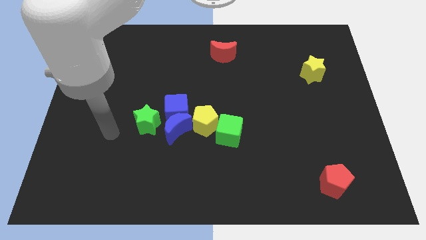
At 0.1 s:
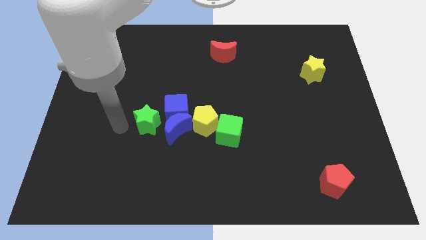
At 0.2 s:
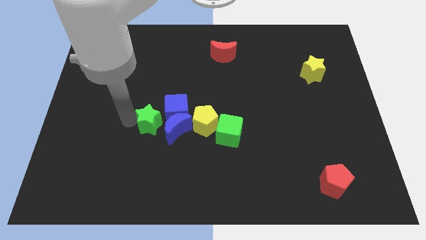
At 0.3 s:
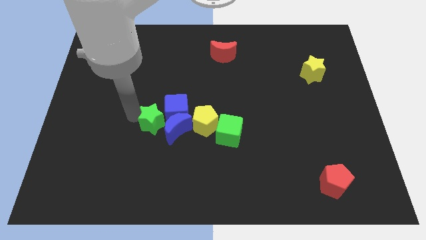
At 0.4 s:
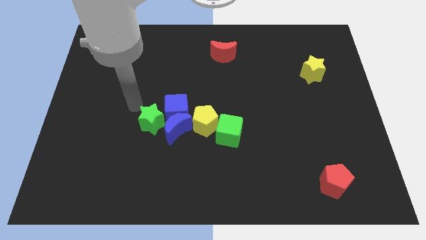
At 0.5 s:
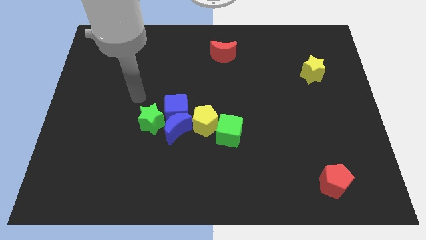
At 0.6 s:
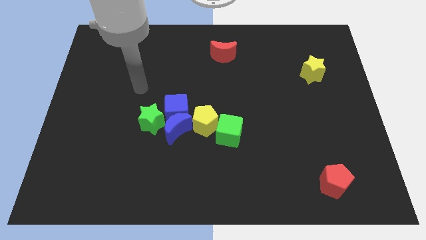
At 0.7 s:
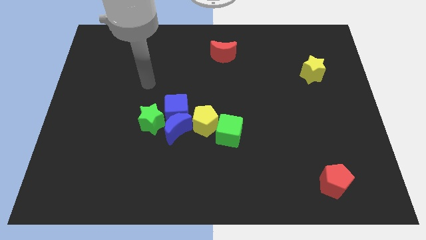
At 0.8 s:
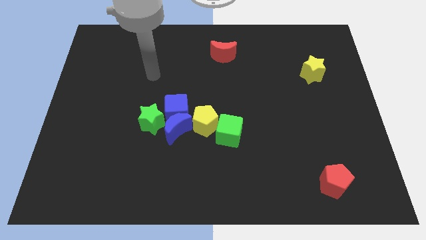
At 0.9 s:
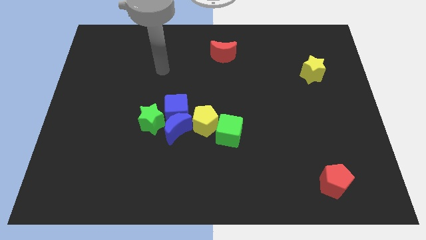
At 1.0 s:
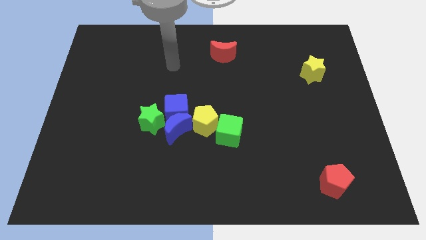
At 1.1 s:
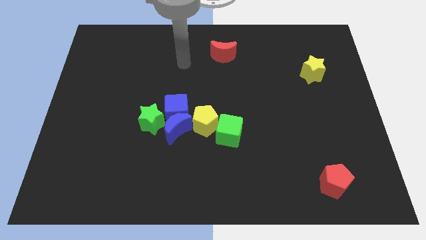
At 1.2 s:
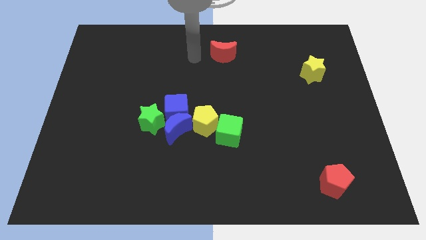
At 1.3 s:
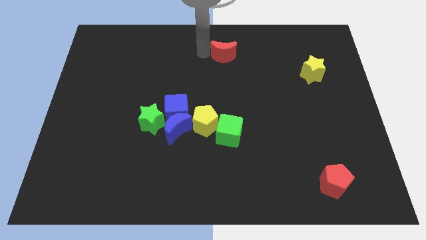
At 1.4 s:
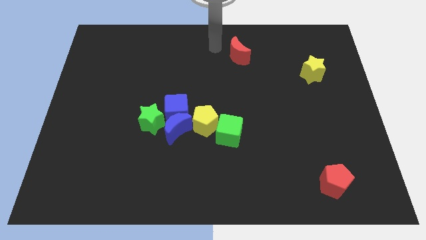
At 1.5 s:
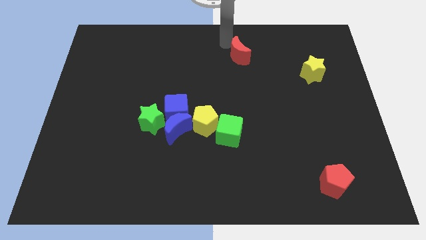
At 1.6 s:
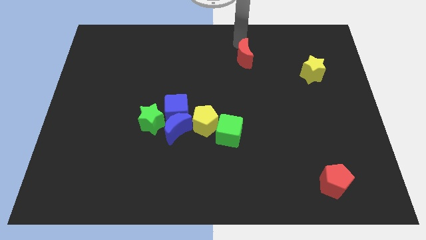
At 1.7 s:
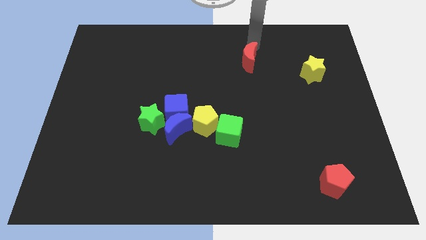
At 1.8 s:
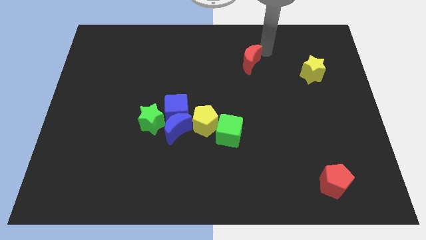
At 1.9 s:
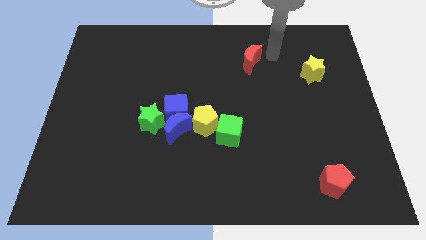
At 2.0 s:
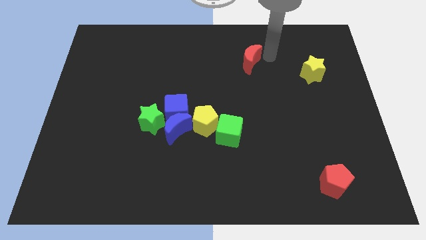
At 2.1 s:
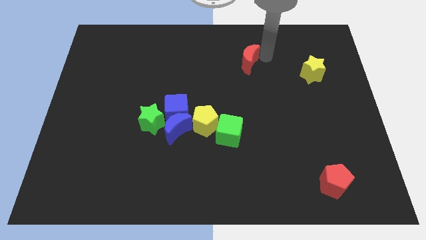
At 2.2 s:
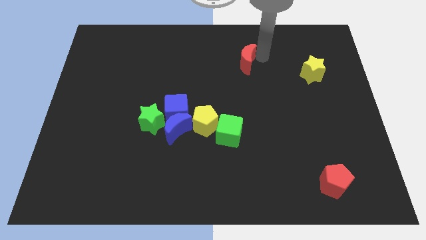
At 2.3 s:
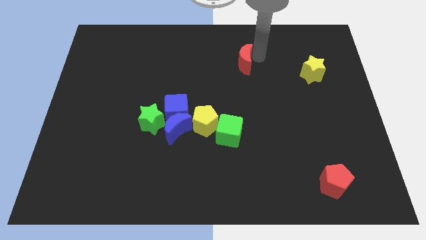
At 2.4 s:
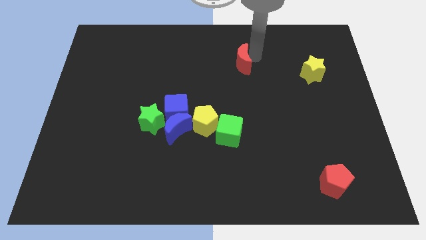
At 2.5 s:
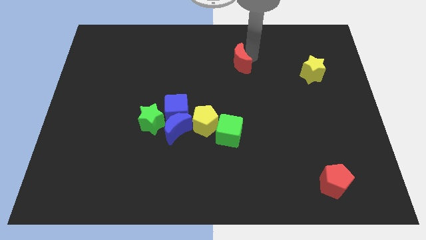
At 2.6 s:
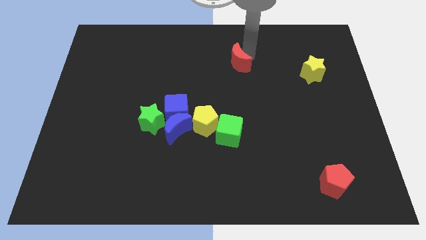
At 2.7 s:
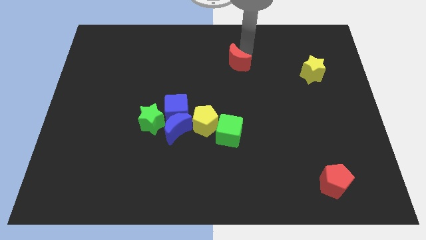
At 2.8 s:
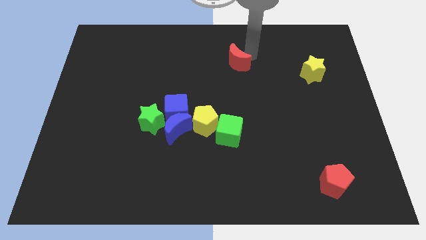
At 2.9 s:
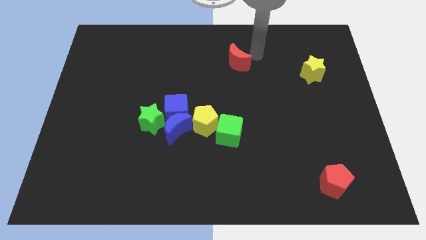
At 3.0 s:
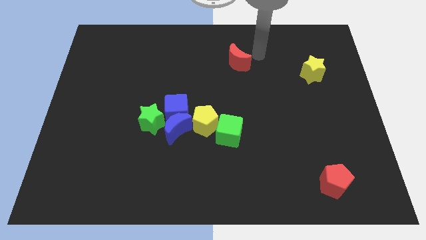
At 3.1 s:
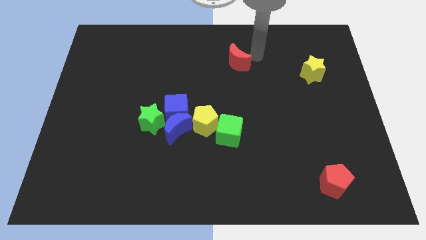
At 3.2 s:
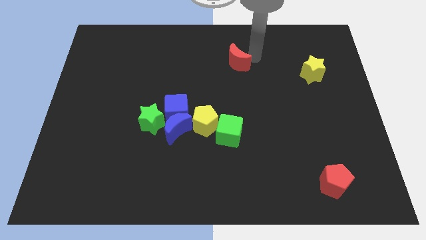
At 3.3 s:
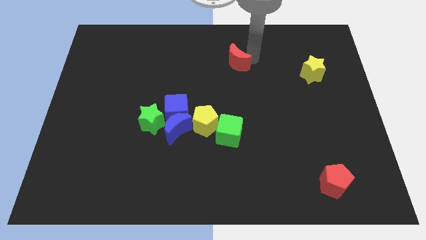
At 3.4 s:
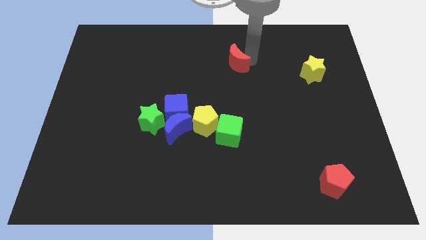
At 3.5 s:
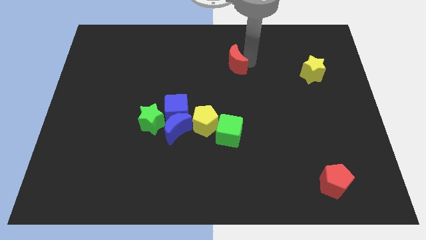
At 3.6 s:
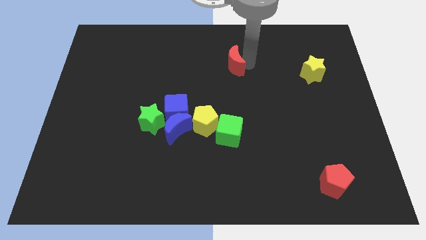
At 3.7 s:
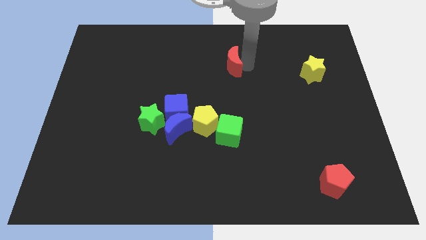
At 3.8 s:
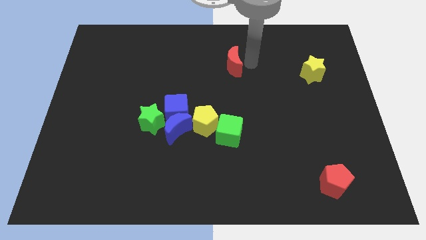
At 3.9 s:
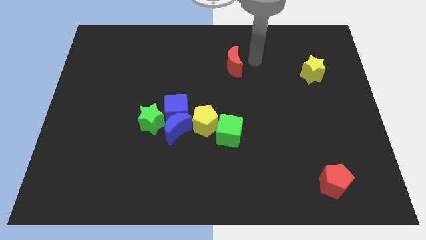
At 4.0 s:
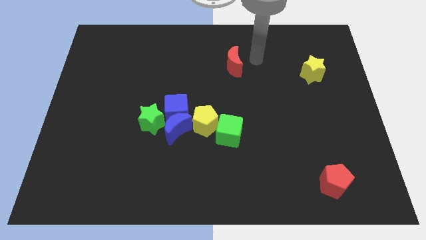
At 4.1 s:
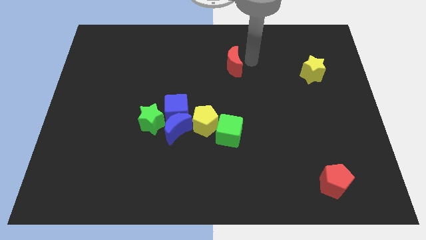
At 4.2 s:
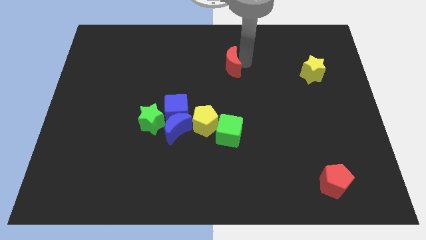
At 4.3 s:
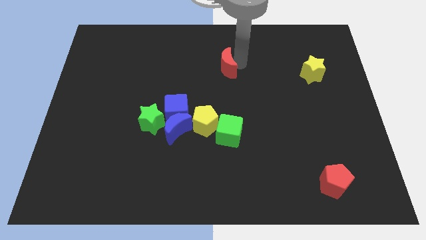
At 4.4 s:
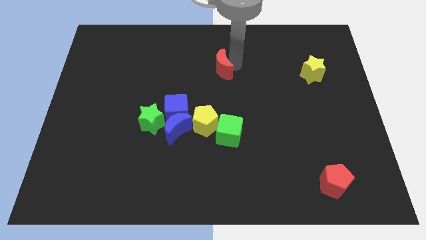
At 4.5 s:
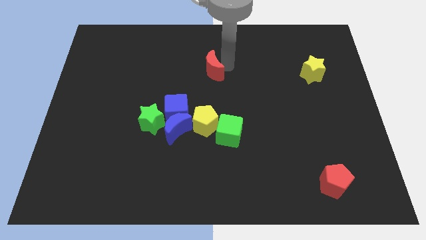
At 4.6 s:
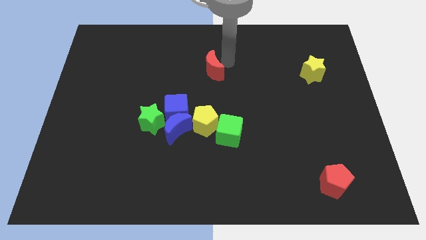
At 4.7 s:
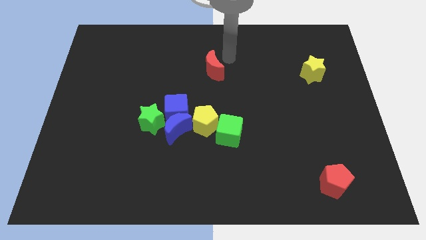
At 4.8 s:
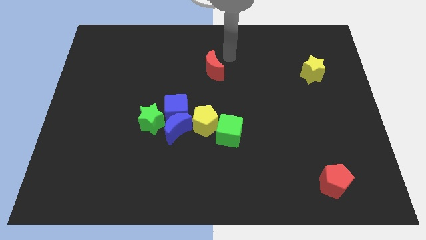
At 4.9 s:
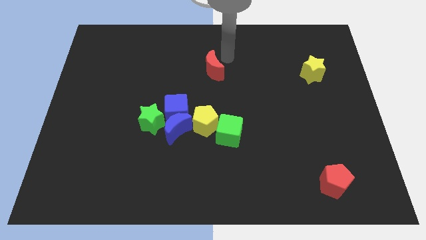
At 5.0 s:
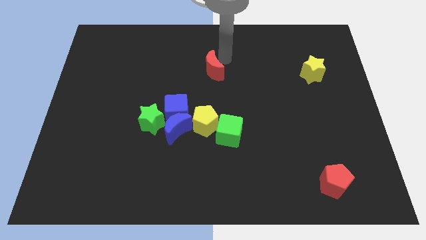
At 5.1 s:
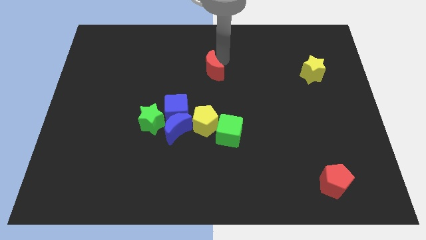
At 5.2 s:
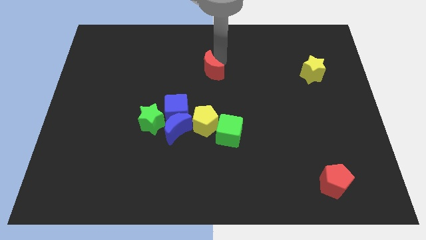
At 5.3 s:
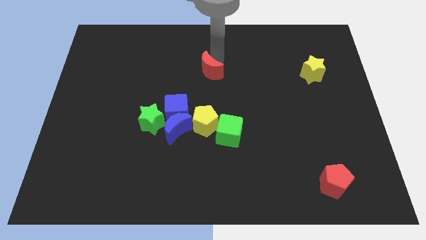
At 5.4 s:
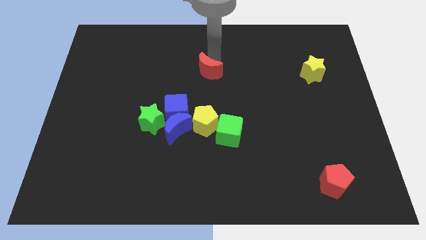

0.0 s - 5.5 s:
push the red moon downwards and left diagonally a little bit

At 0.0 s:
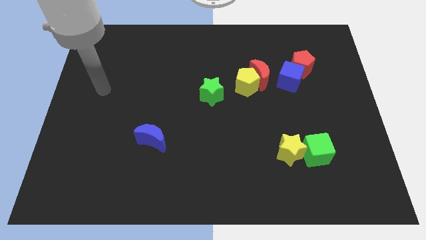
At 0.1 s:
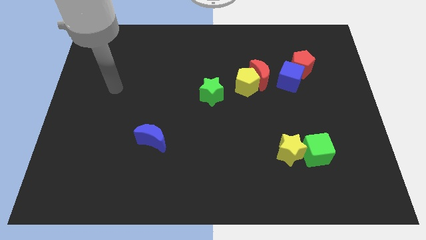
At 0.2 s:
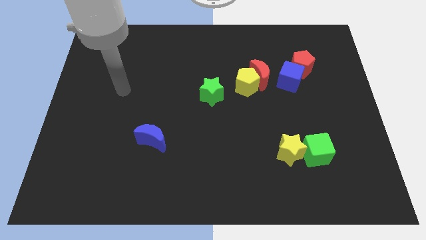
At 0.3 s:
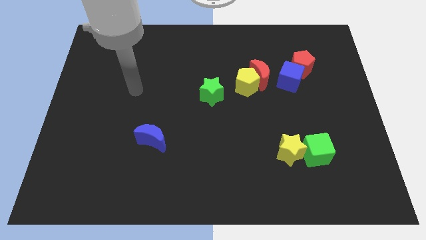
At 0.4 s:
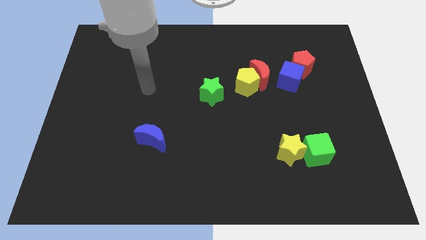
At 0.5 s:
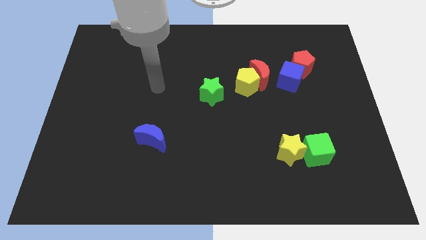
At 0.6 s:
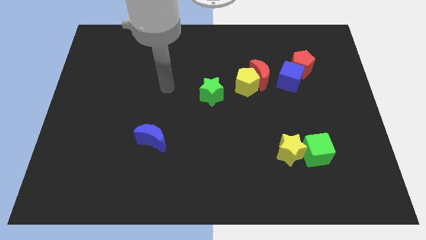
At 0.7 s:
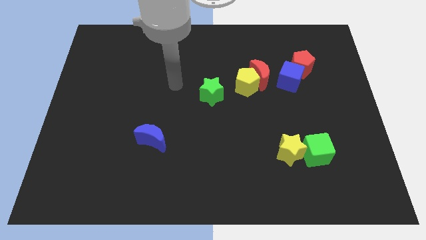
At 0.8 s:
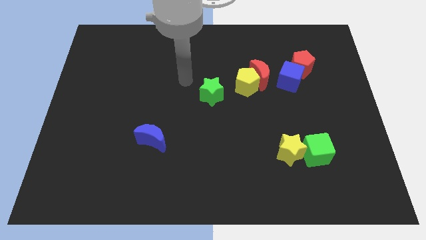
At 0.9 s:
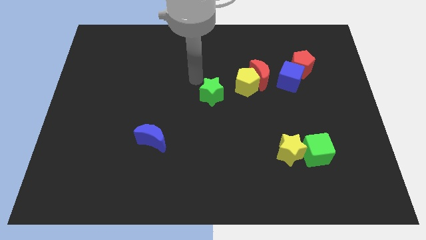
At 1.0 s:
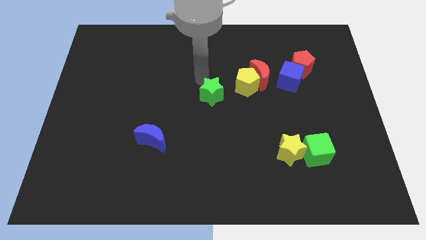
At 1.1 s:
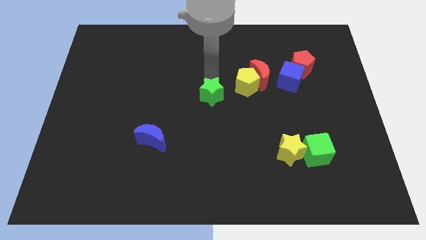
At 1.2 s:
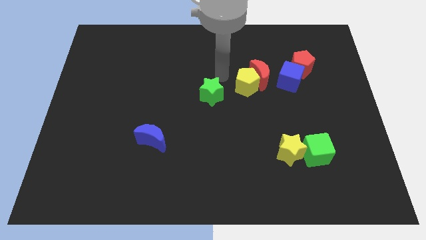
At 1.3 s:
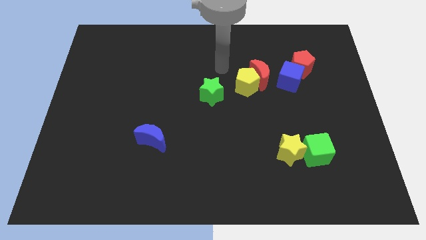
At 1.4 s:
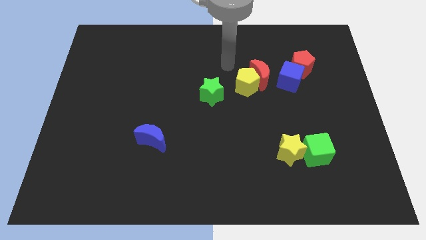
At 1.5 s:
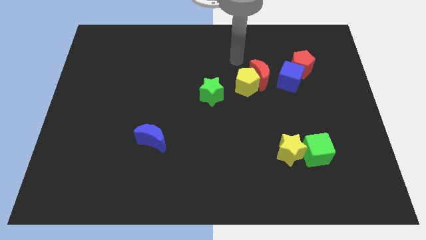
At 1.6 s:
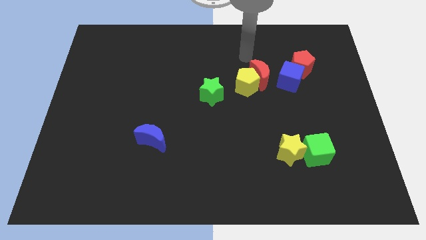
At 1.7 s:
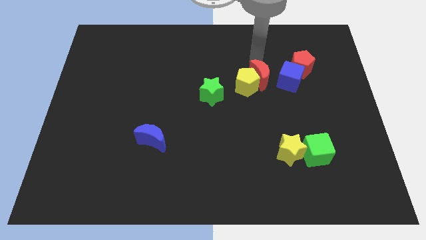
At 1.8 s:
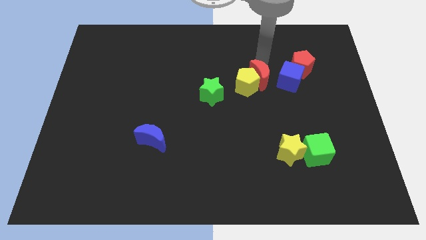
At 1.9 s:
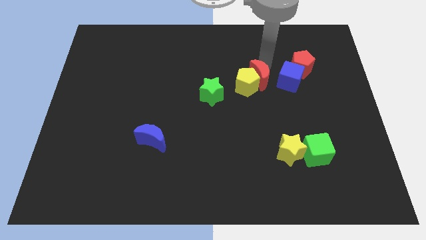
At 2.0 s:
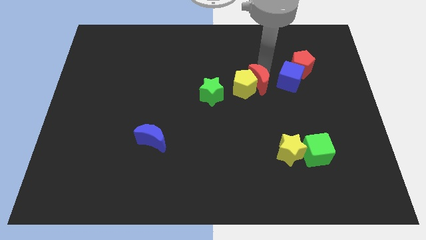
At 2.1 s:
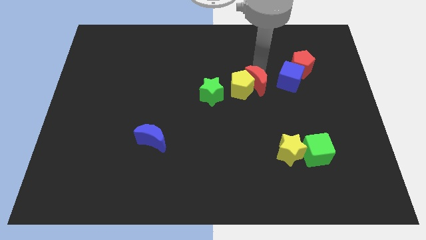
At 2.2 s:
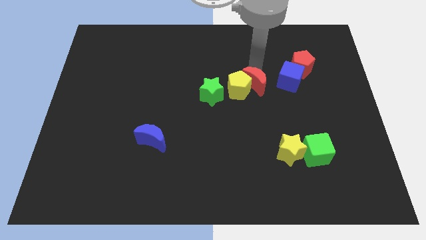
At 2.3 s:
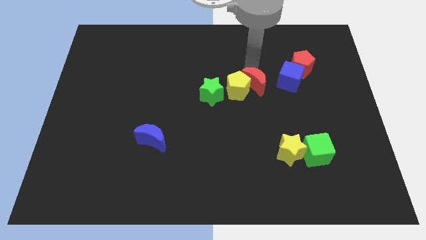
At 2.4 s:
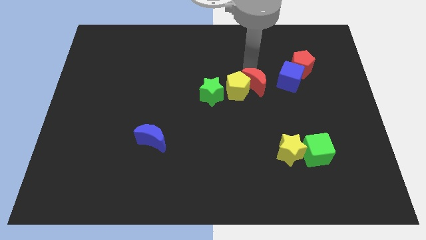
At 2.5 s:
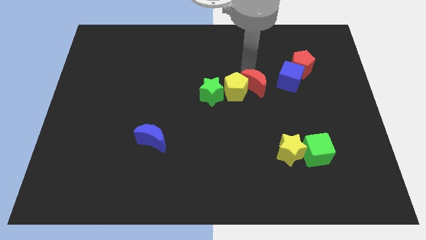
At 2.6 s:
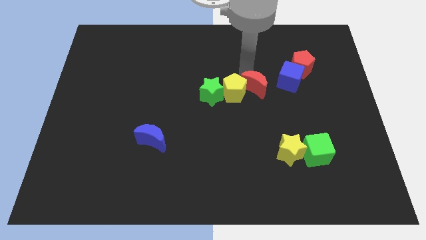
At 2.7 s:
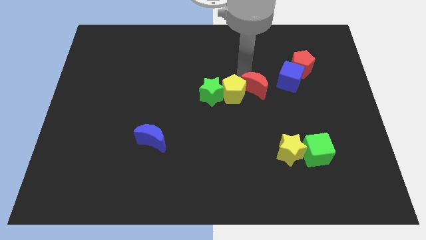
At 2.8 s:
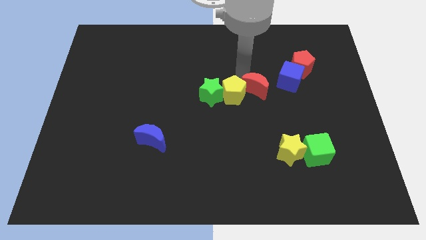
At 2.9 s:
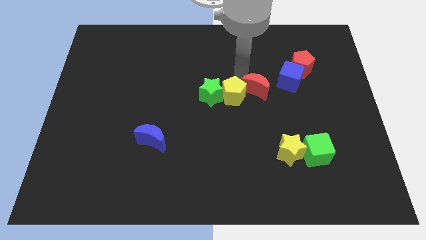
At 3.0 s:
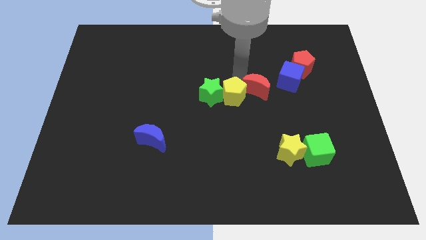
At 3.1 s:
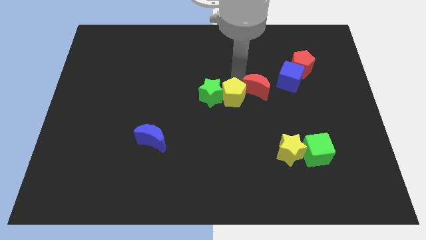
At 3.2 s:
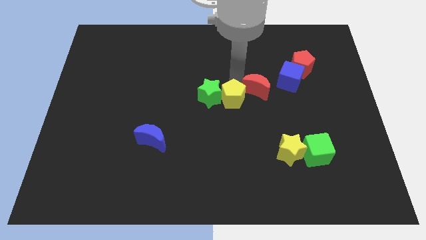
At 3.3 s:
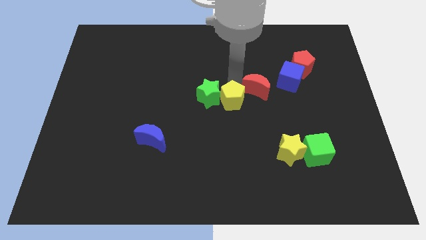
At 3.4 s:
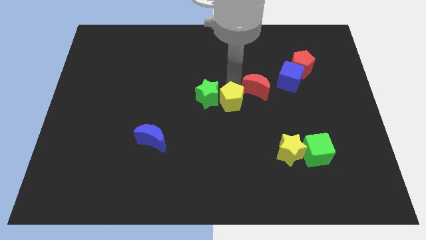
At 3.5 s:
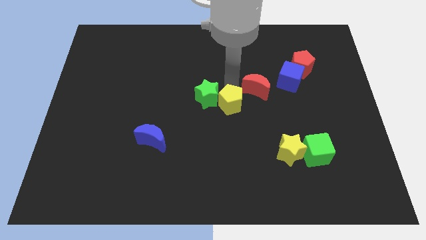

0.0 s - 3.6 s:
slightly slide the yellow pentagon diagonally down and left
